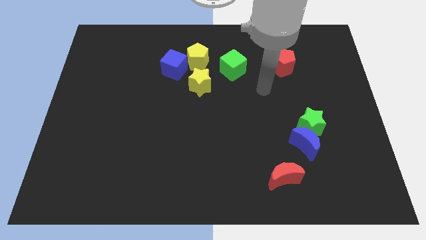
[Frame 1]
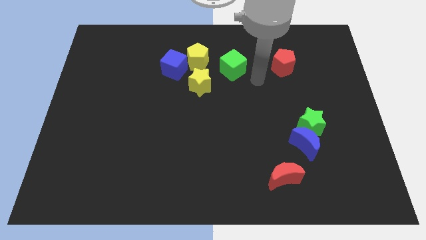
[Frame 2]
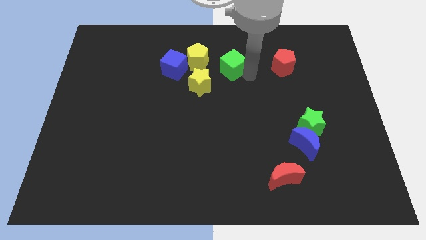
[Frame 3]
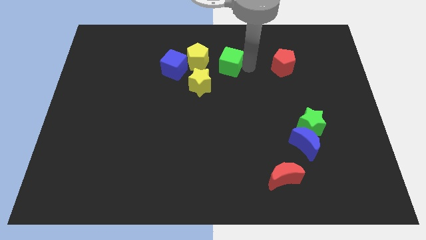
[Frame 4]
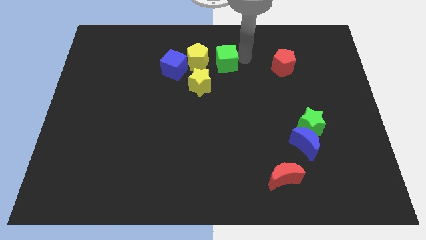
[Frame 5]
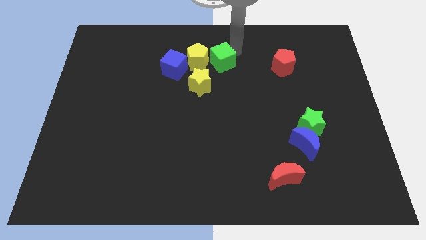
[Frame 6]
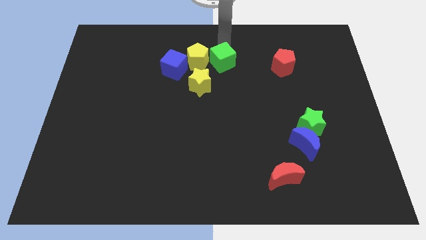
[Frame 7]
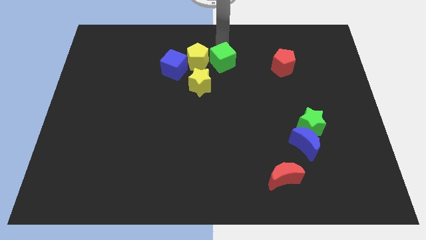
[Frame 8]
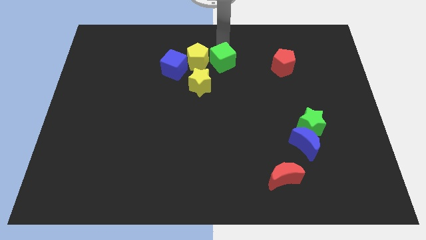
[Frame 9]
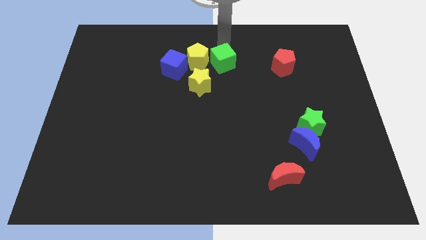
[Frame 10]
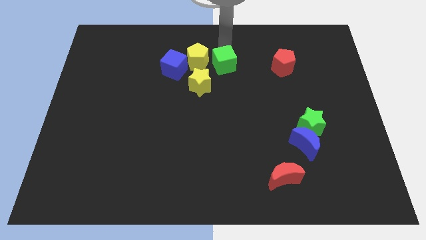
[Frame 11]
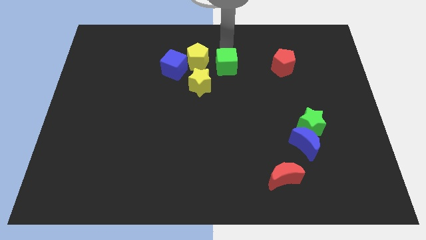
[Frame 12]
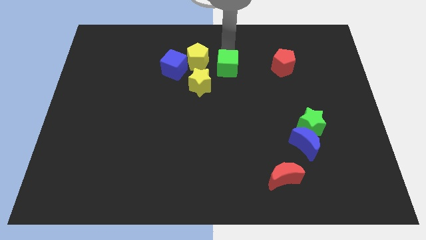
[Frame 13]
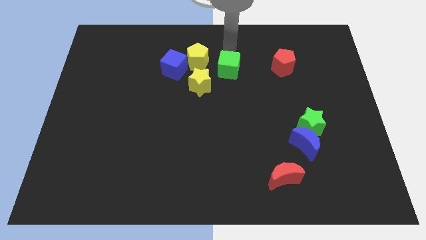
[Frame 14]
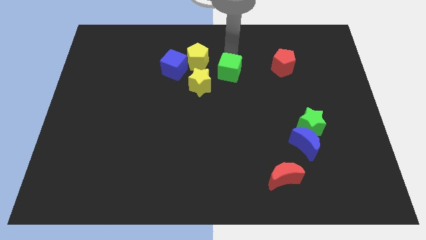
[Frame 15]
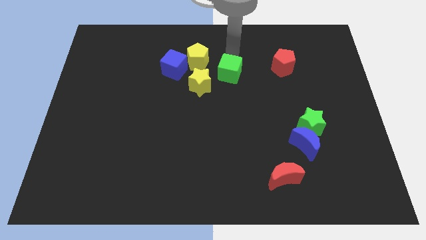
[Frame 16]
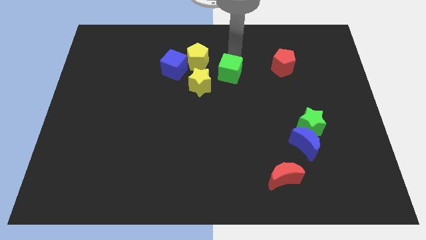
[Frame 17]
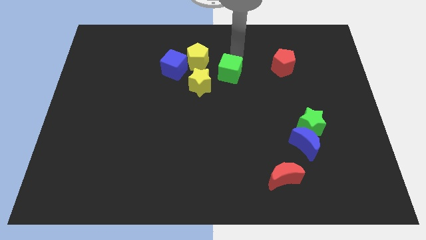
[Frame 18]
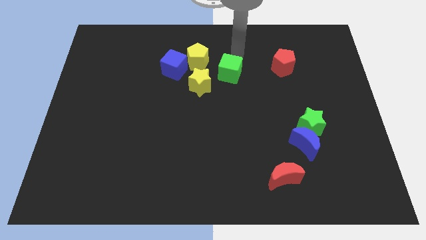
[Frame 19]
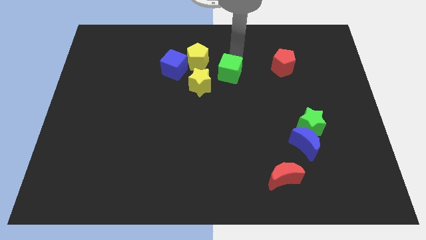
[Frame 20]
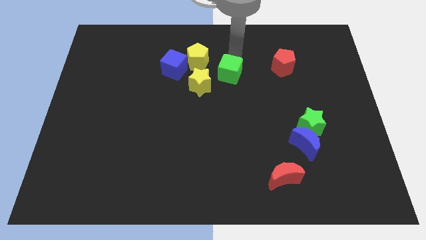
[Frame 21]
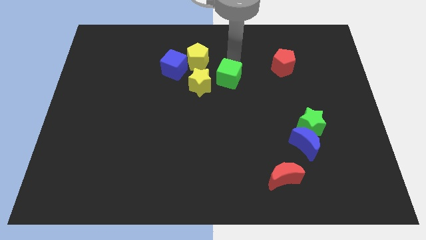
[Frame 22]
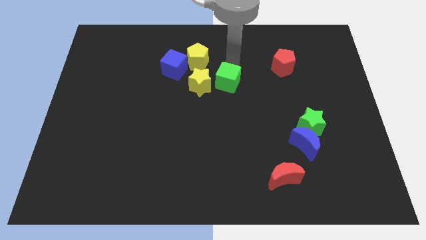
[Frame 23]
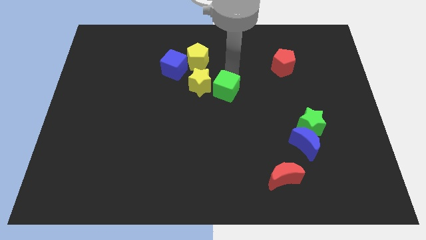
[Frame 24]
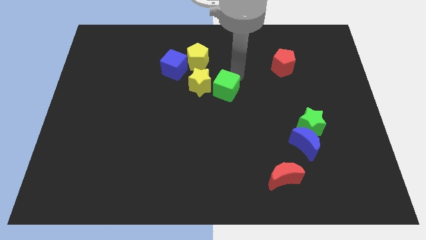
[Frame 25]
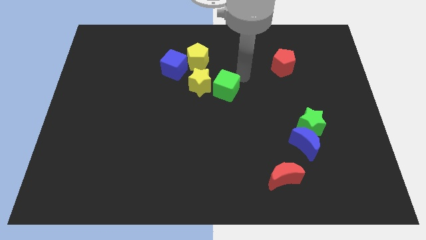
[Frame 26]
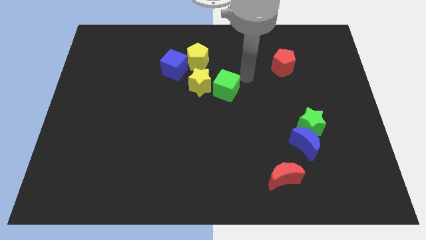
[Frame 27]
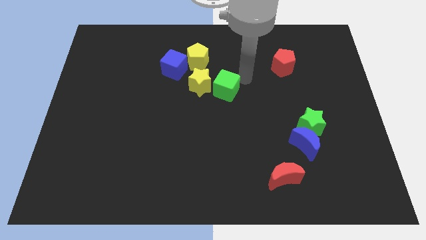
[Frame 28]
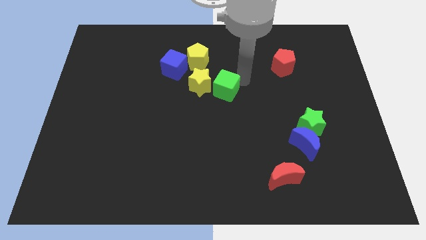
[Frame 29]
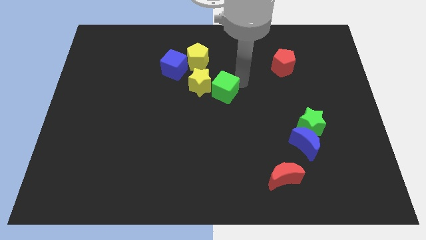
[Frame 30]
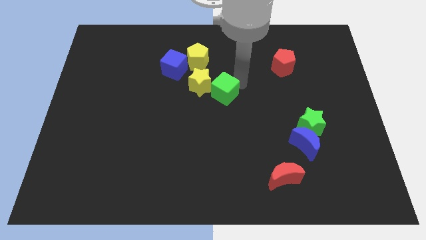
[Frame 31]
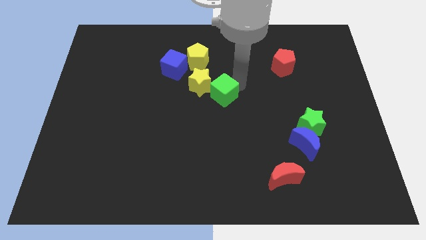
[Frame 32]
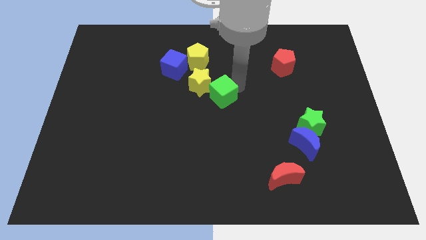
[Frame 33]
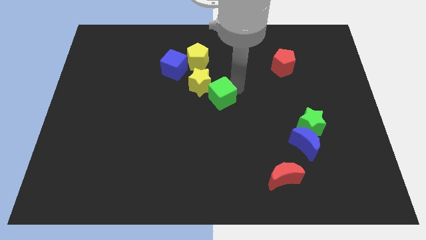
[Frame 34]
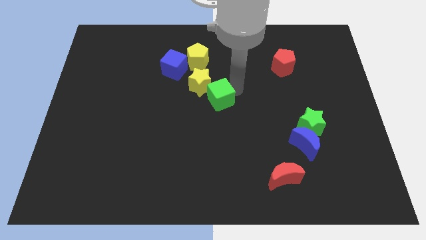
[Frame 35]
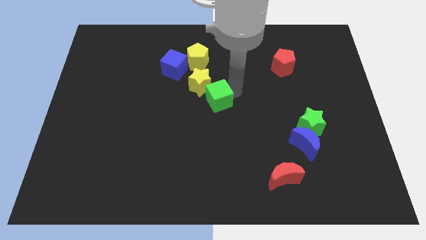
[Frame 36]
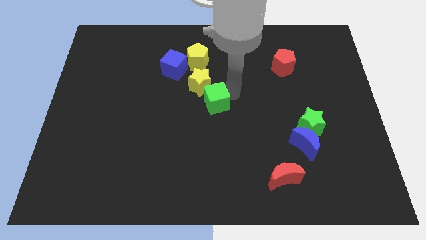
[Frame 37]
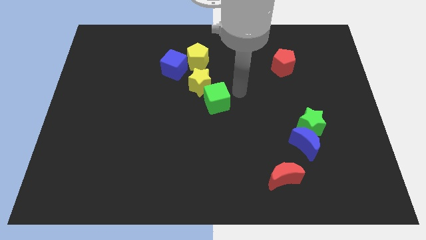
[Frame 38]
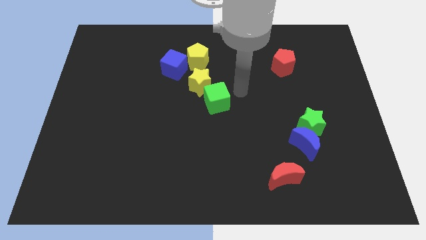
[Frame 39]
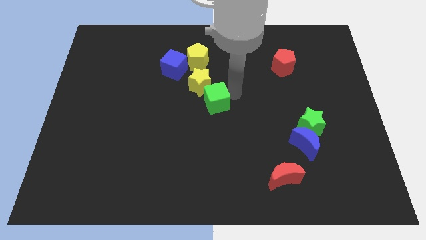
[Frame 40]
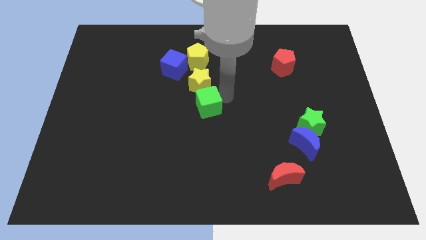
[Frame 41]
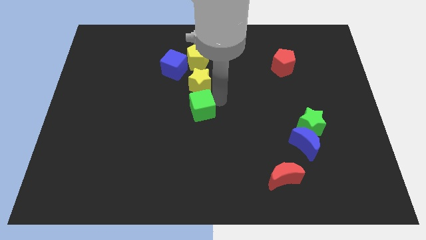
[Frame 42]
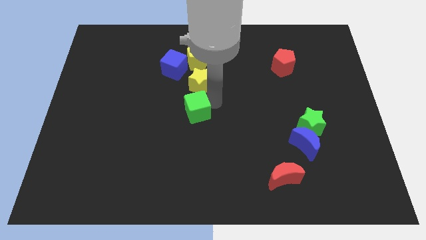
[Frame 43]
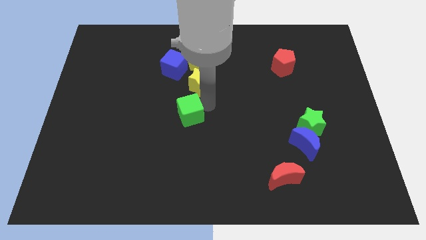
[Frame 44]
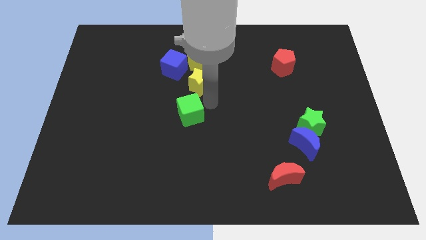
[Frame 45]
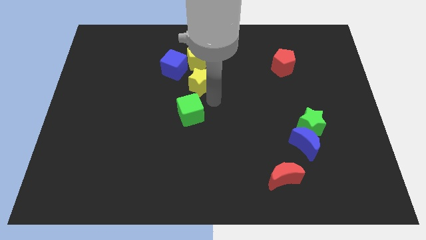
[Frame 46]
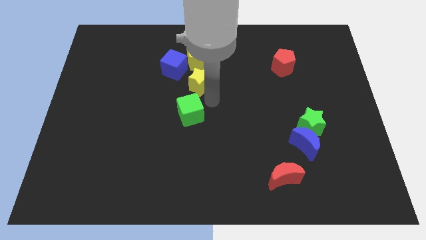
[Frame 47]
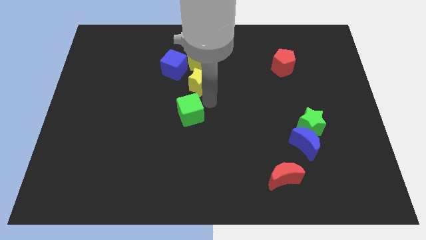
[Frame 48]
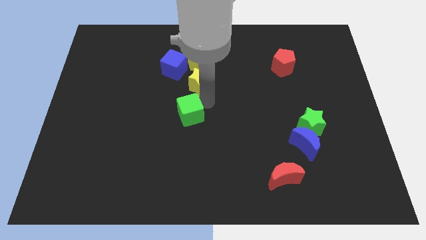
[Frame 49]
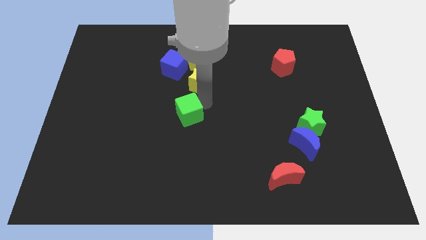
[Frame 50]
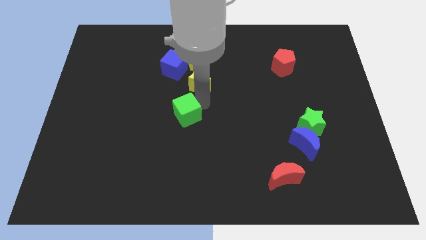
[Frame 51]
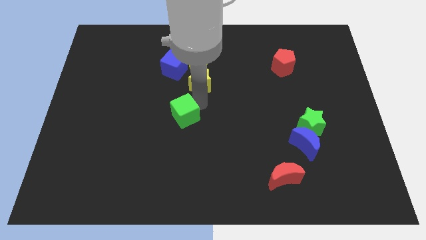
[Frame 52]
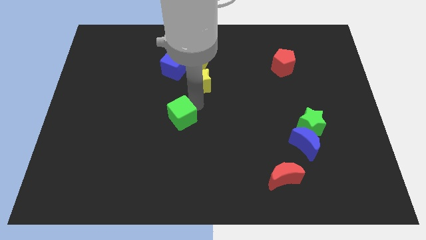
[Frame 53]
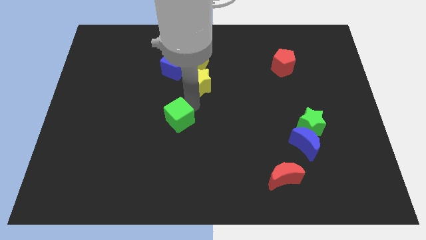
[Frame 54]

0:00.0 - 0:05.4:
move the green cube downwards and left diagonally

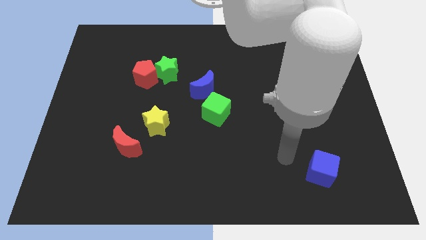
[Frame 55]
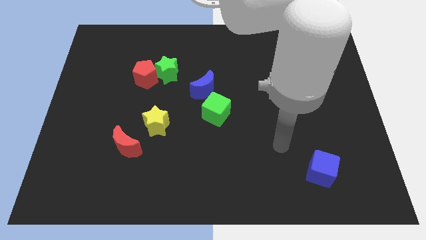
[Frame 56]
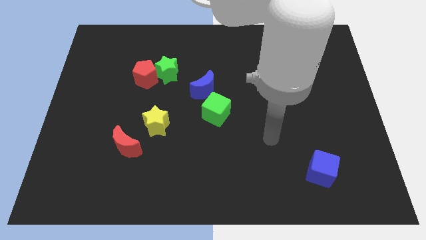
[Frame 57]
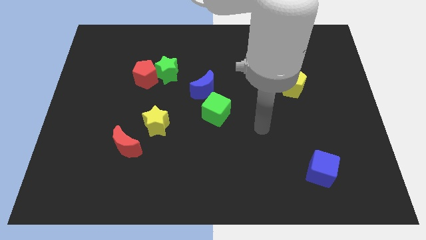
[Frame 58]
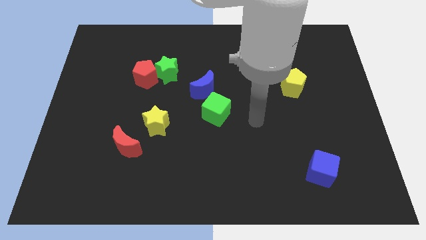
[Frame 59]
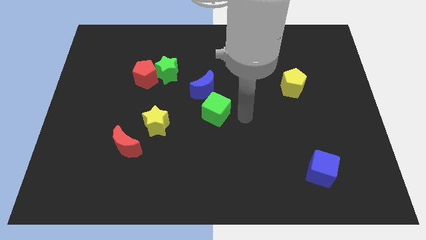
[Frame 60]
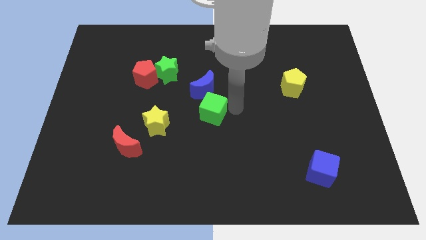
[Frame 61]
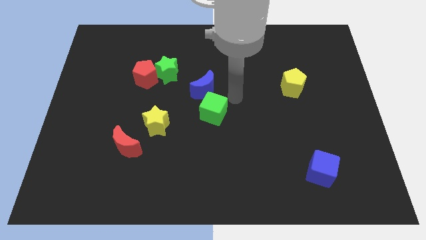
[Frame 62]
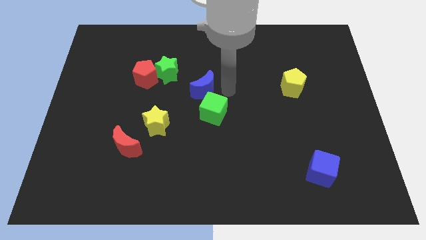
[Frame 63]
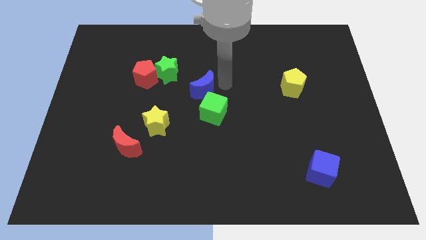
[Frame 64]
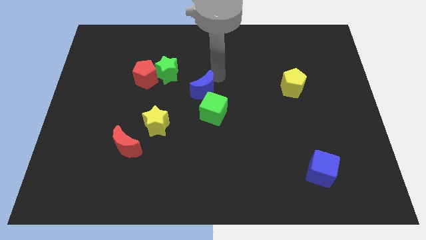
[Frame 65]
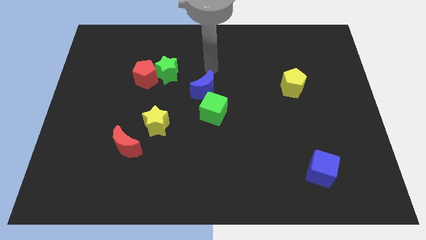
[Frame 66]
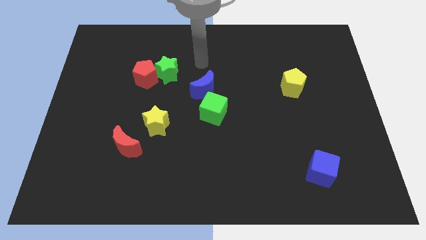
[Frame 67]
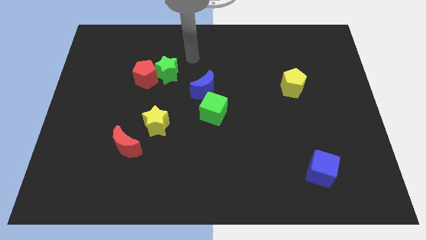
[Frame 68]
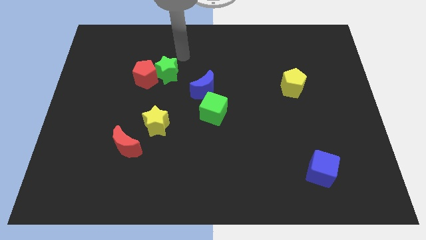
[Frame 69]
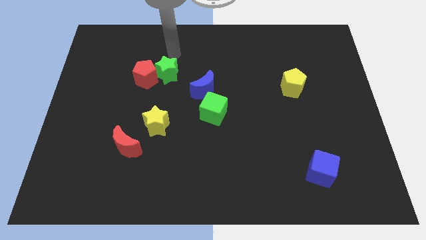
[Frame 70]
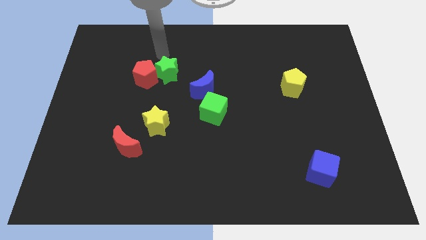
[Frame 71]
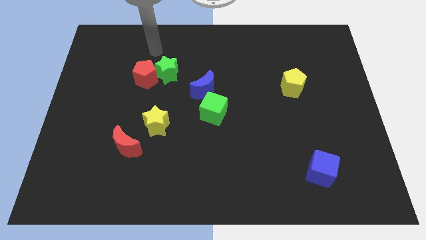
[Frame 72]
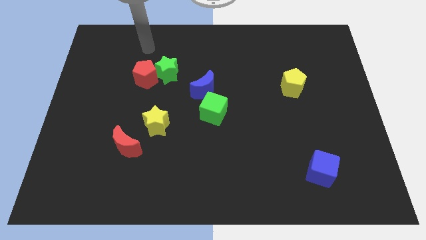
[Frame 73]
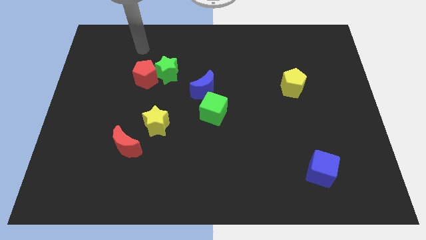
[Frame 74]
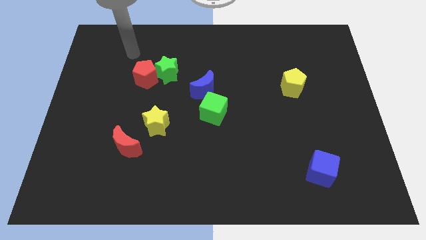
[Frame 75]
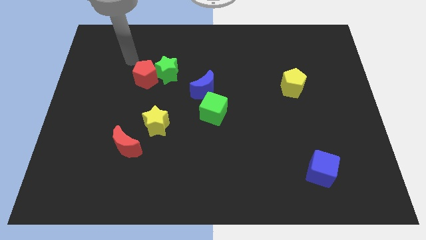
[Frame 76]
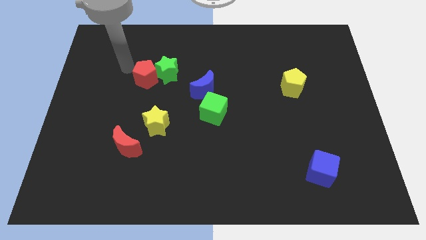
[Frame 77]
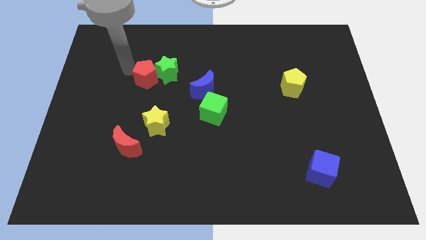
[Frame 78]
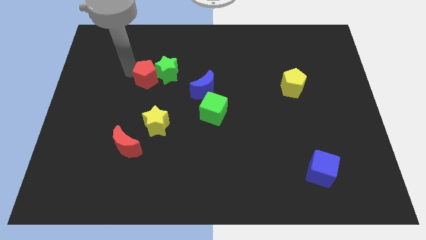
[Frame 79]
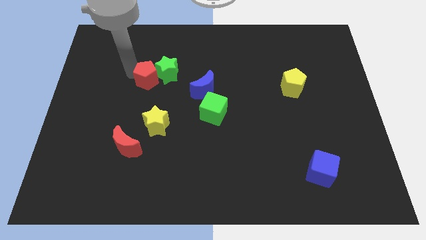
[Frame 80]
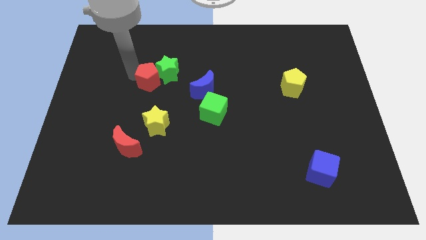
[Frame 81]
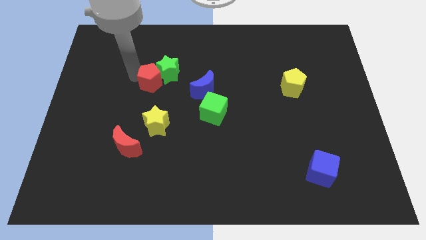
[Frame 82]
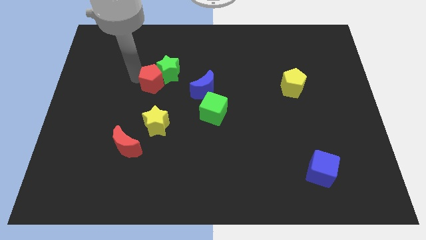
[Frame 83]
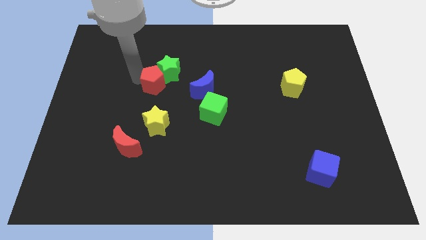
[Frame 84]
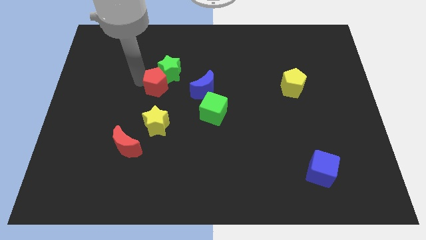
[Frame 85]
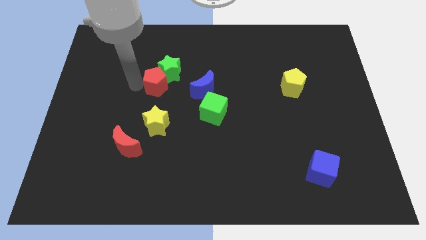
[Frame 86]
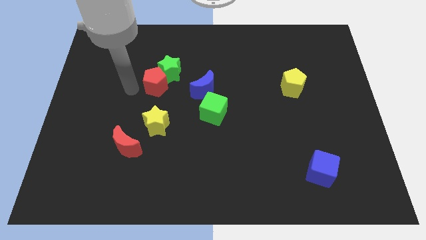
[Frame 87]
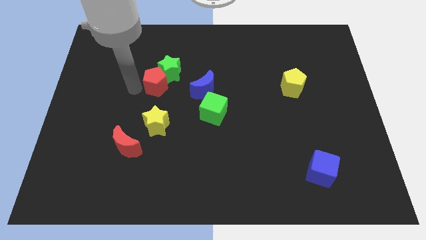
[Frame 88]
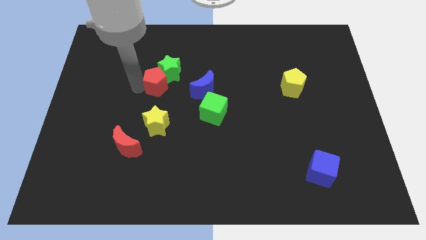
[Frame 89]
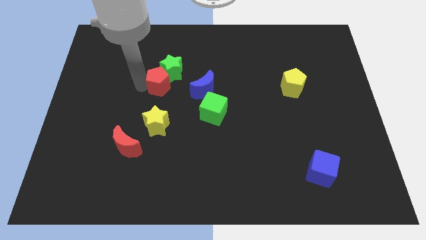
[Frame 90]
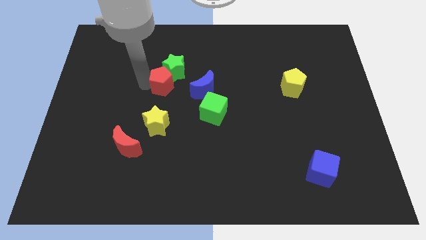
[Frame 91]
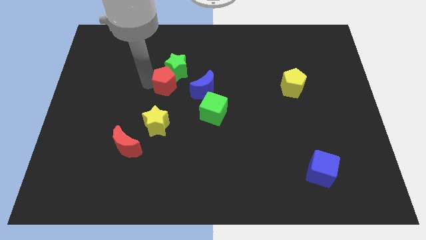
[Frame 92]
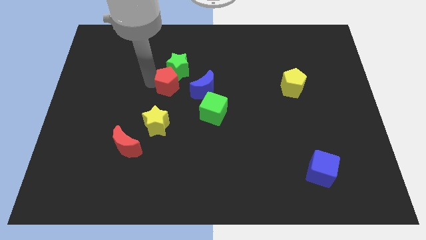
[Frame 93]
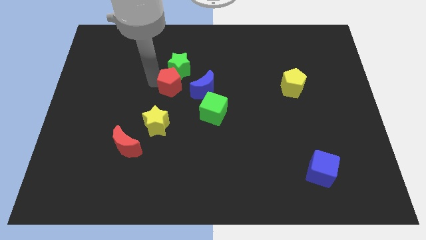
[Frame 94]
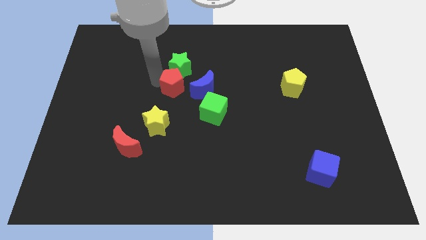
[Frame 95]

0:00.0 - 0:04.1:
slightly push the red pentagon to the right
